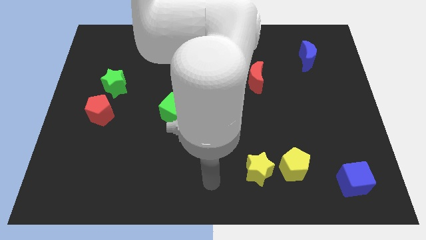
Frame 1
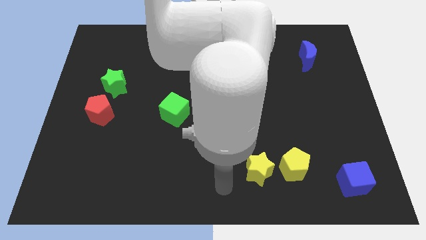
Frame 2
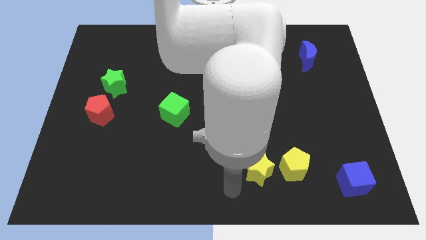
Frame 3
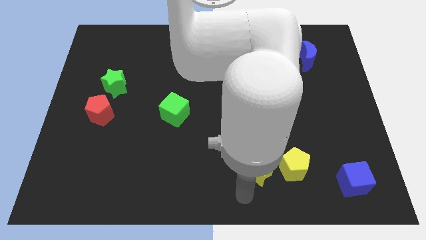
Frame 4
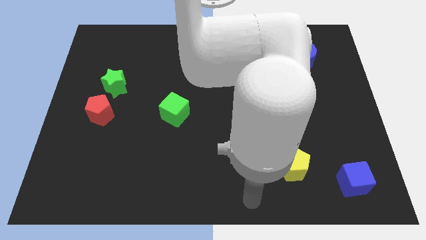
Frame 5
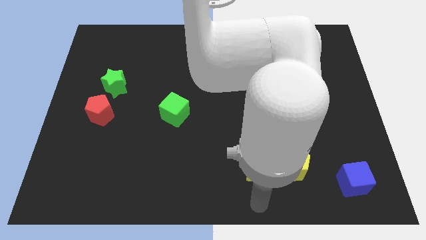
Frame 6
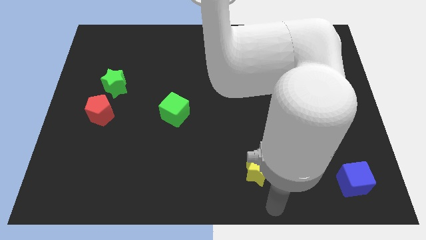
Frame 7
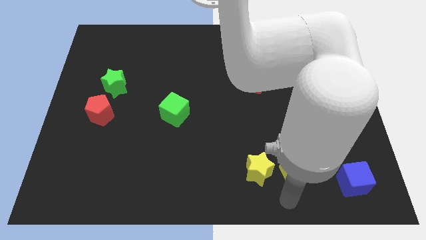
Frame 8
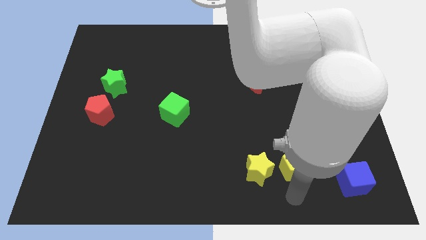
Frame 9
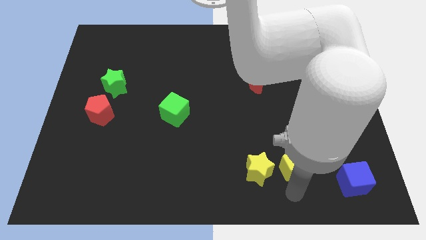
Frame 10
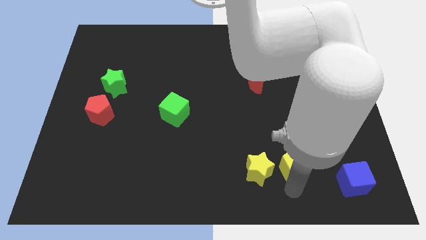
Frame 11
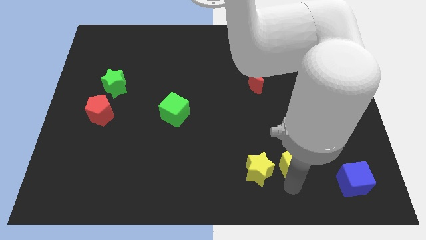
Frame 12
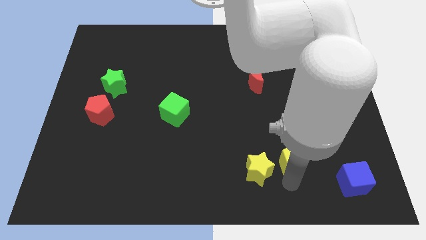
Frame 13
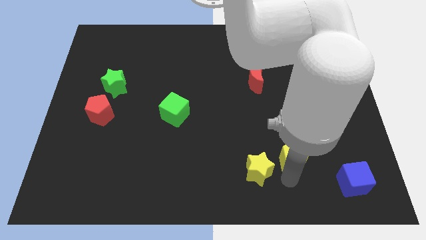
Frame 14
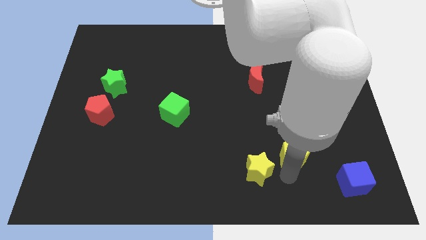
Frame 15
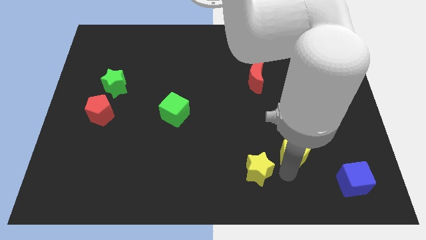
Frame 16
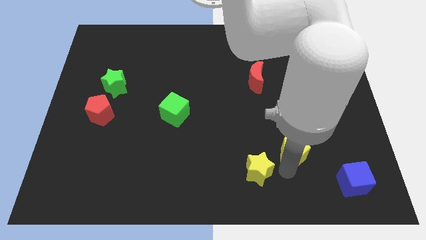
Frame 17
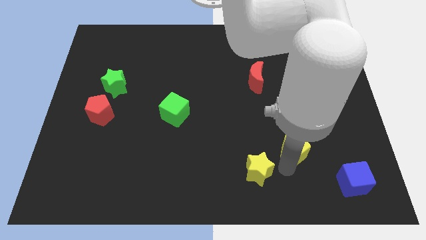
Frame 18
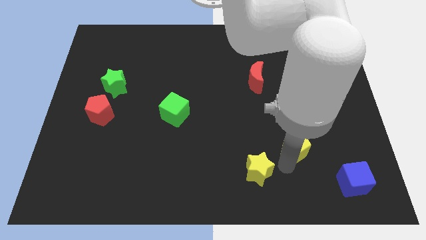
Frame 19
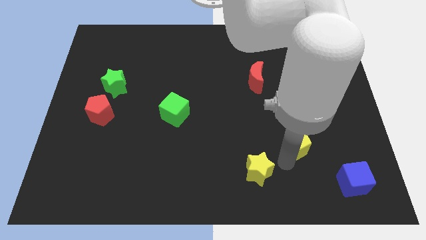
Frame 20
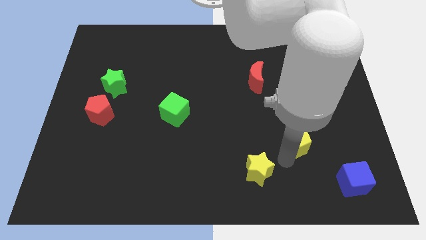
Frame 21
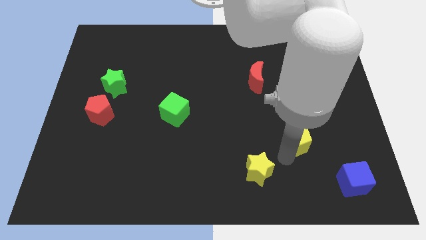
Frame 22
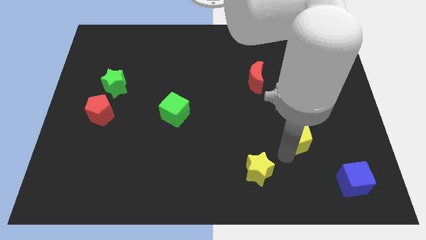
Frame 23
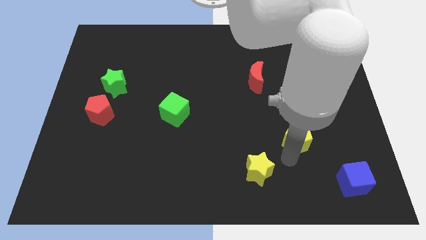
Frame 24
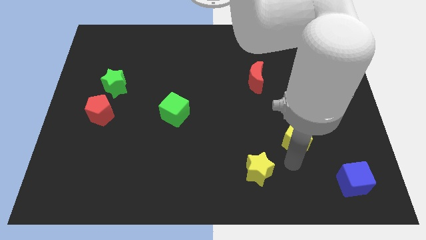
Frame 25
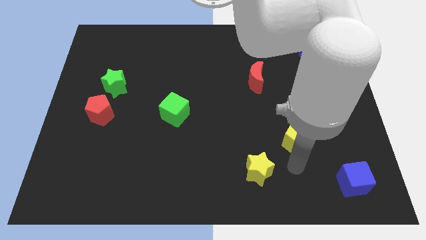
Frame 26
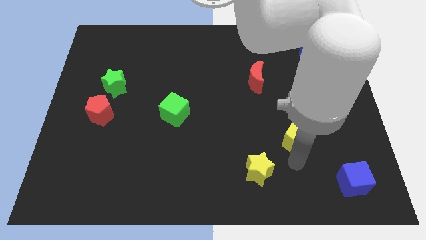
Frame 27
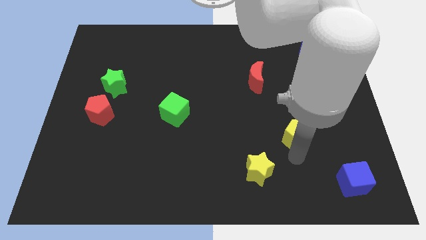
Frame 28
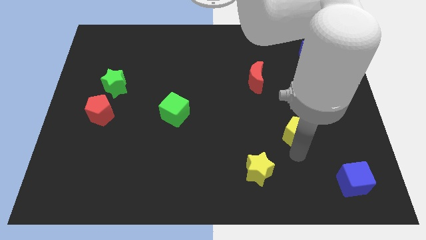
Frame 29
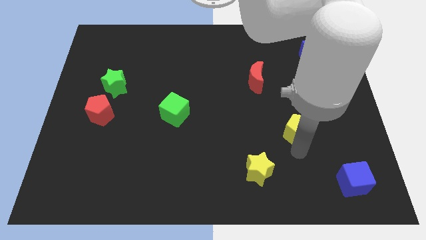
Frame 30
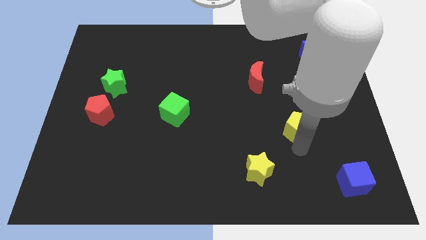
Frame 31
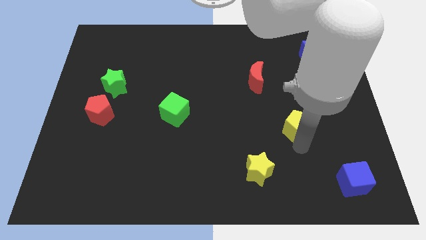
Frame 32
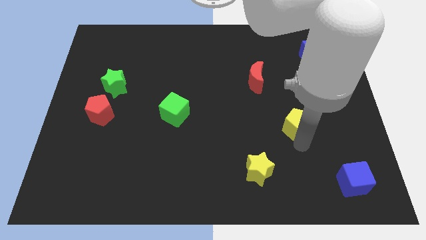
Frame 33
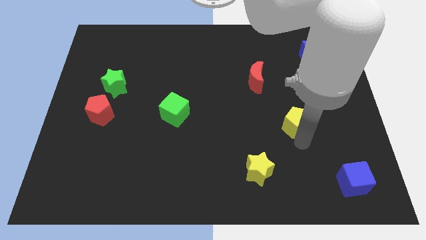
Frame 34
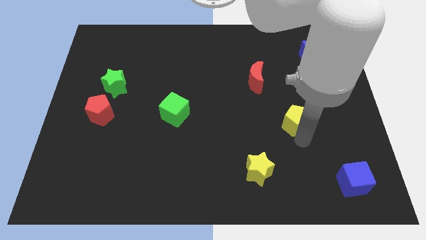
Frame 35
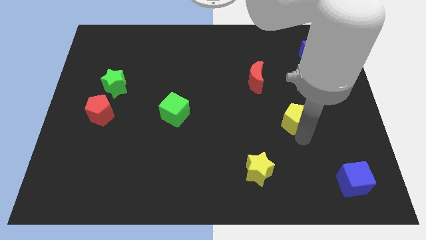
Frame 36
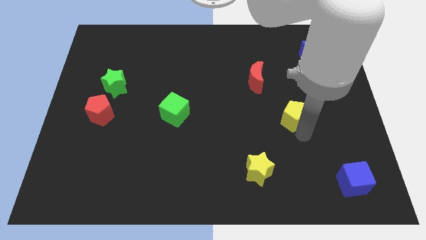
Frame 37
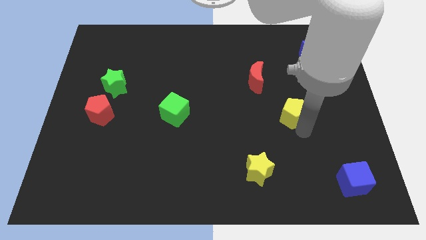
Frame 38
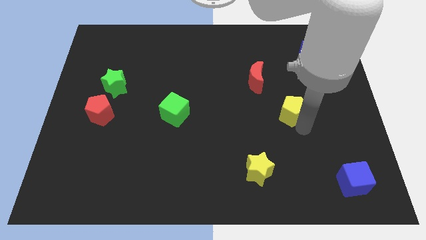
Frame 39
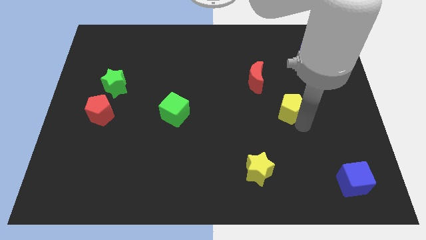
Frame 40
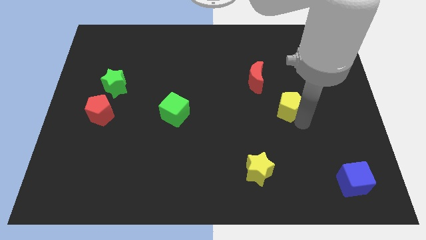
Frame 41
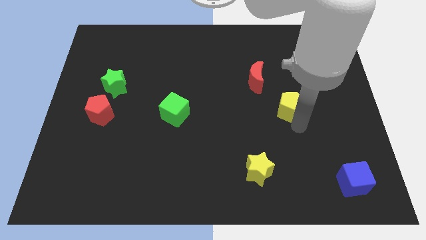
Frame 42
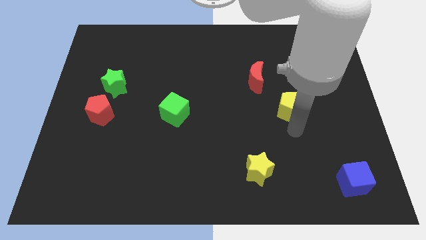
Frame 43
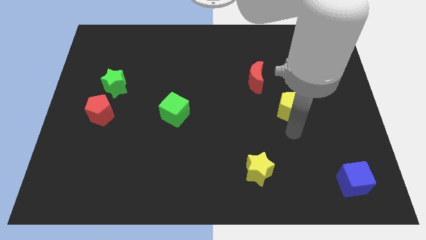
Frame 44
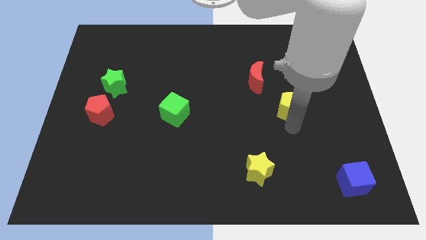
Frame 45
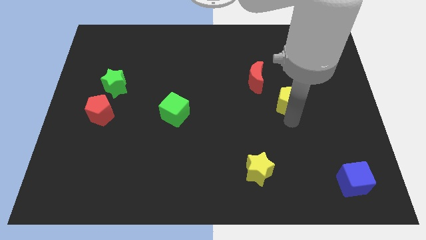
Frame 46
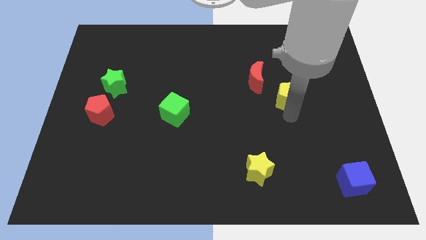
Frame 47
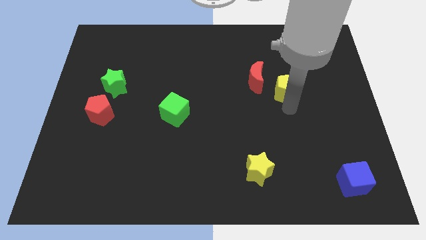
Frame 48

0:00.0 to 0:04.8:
move the yellow pentagon up

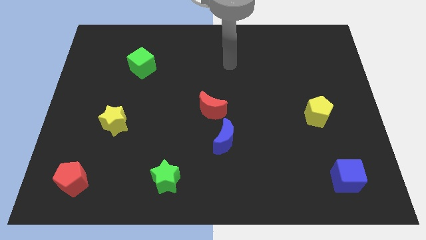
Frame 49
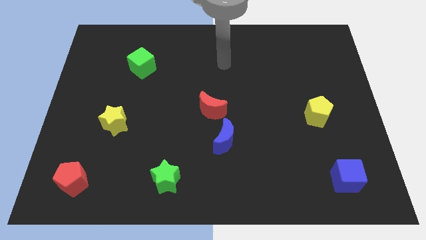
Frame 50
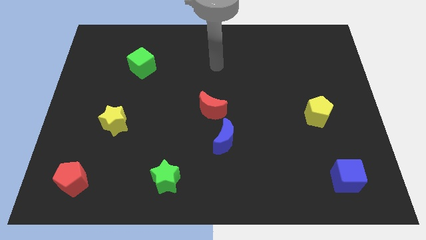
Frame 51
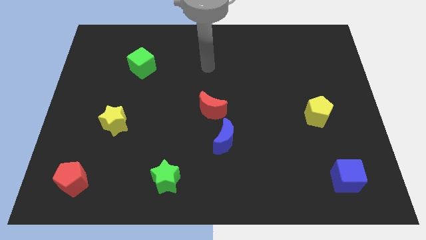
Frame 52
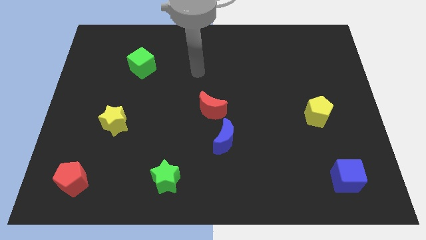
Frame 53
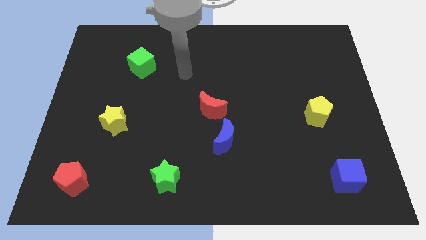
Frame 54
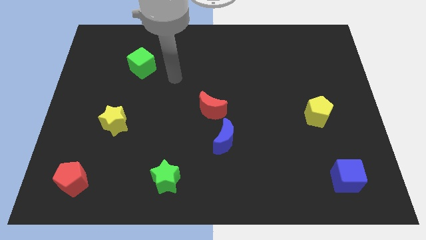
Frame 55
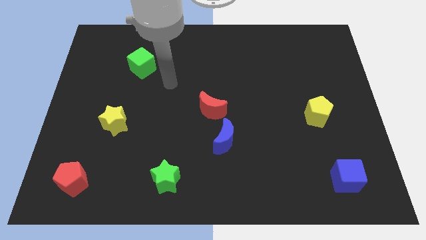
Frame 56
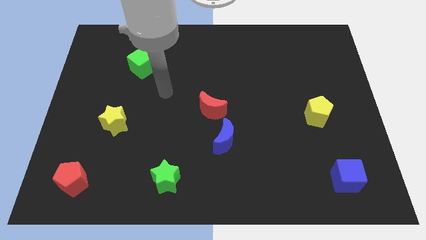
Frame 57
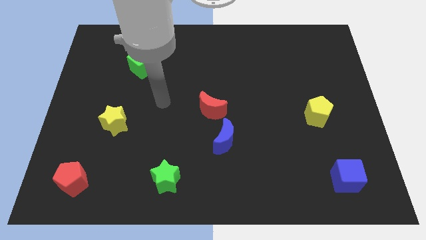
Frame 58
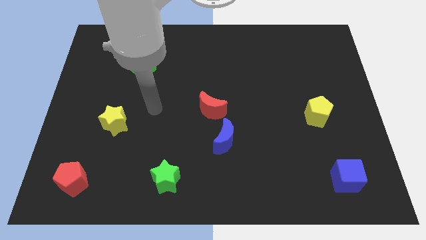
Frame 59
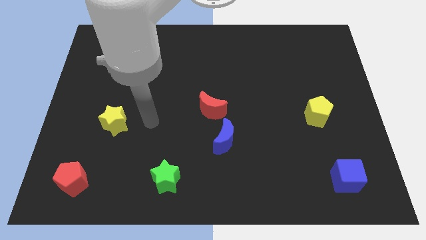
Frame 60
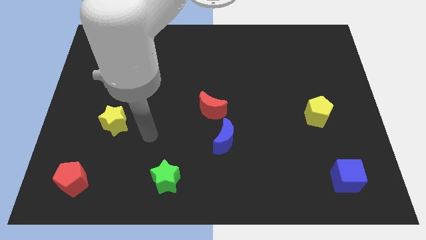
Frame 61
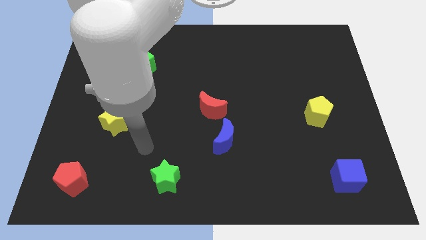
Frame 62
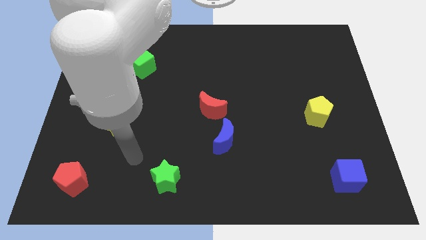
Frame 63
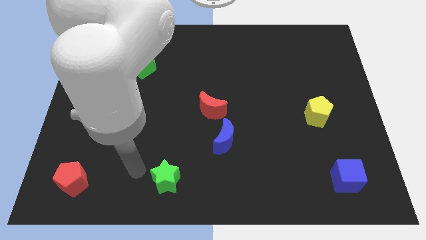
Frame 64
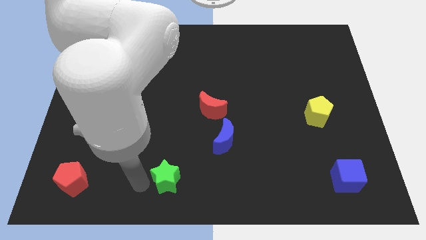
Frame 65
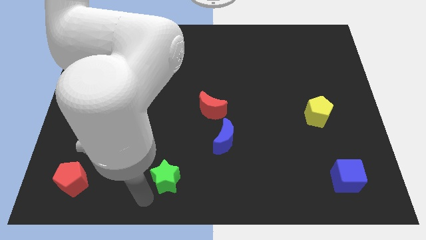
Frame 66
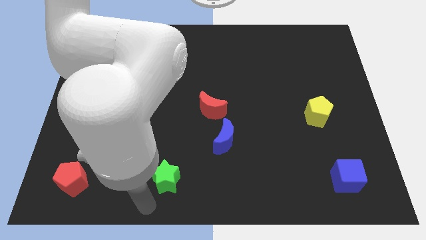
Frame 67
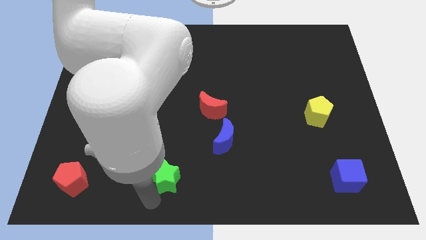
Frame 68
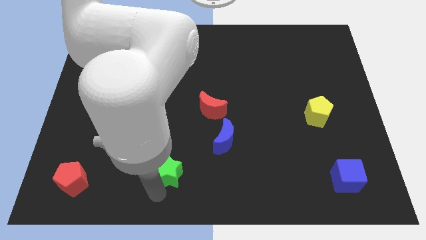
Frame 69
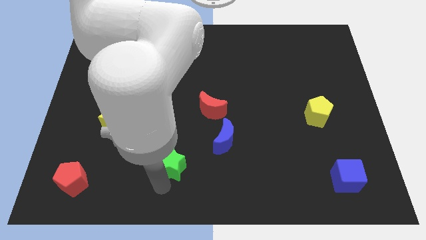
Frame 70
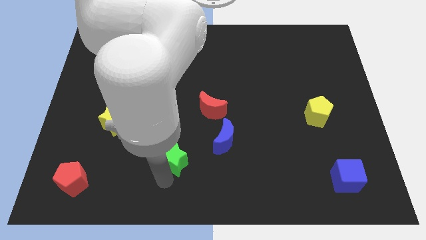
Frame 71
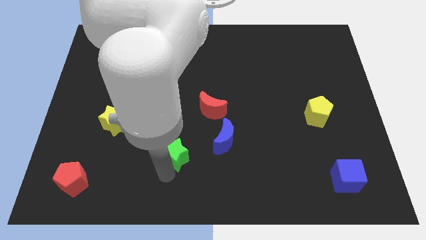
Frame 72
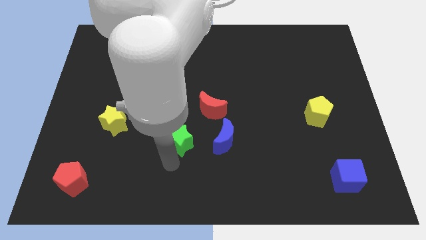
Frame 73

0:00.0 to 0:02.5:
slide the green star slightly up and right

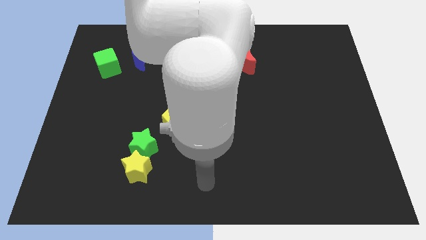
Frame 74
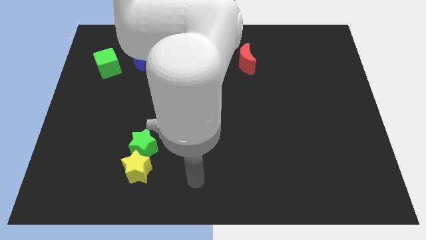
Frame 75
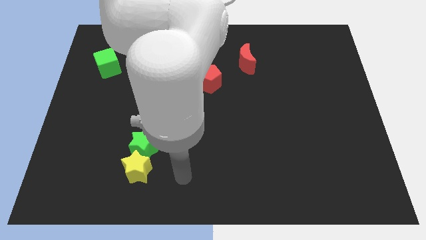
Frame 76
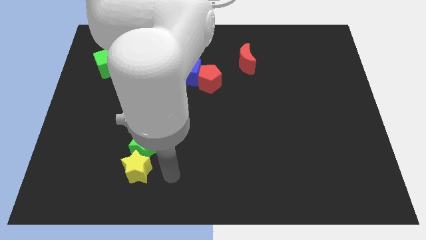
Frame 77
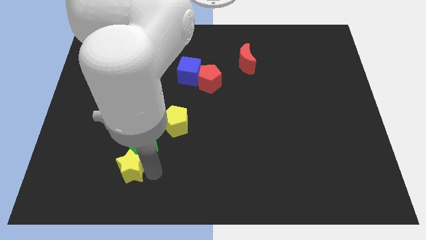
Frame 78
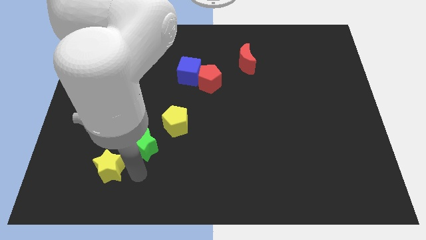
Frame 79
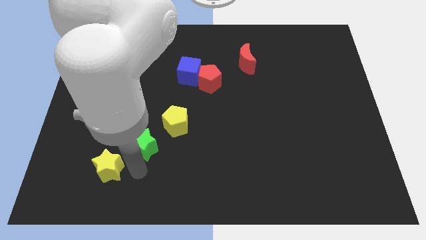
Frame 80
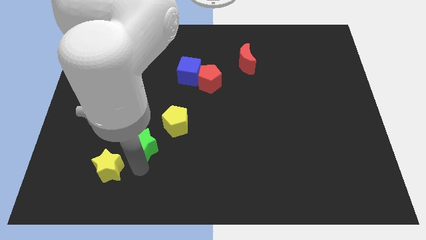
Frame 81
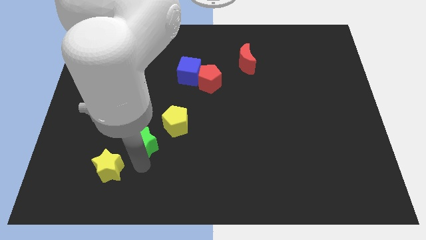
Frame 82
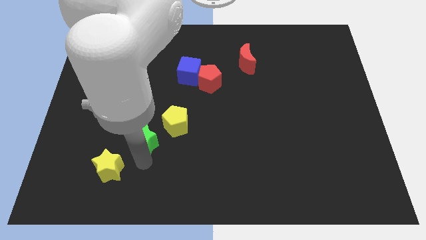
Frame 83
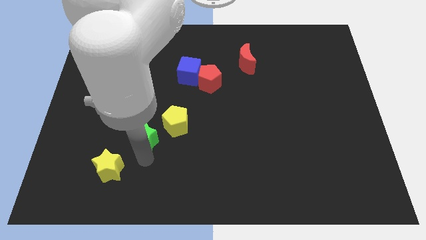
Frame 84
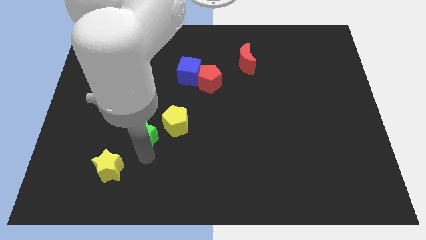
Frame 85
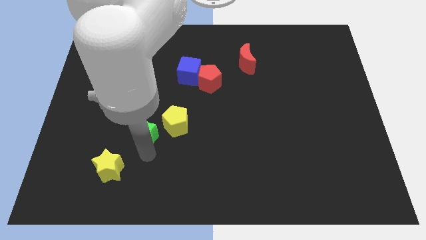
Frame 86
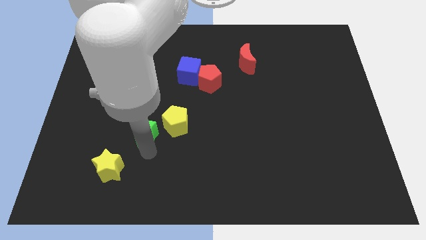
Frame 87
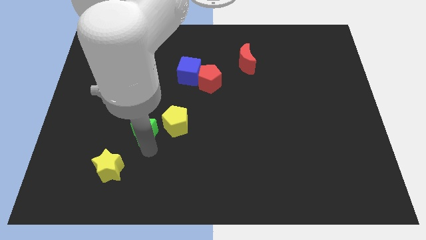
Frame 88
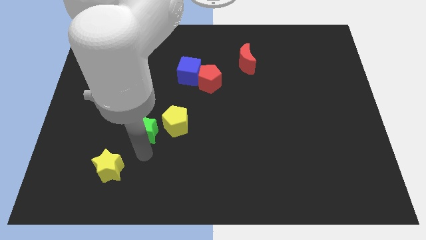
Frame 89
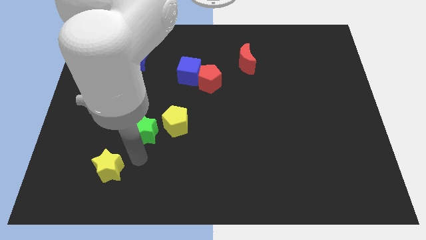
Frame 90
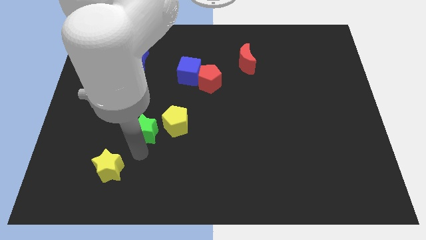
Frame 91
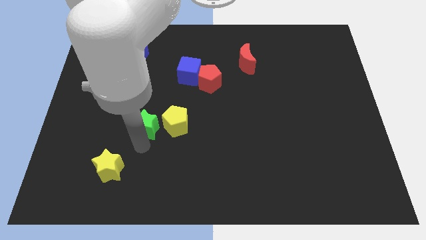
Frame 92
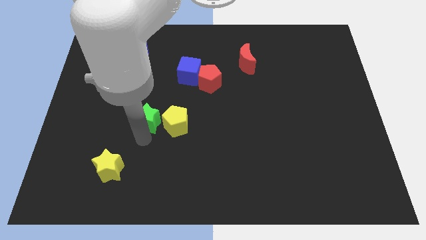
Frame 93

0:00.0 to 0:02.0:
slide the green star up somewhat
